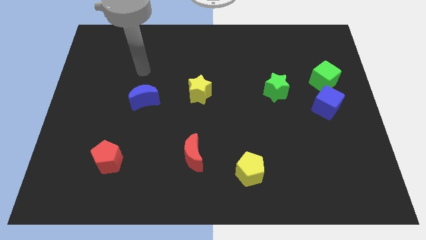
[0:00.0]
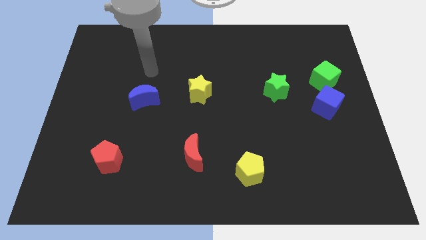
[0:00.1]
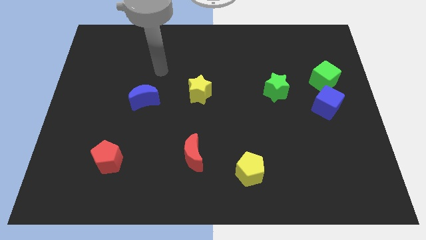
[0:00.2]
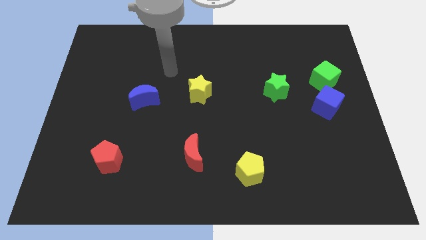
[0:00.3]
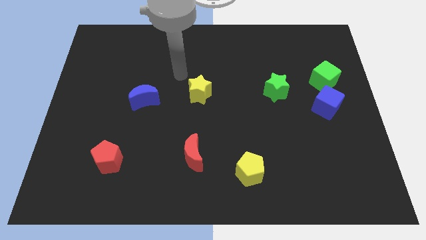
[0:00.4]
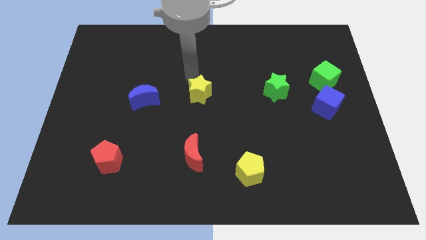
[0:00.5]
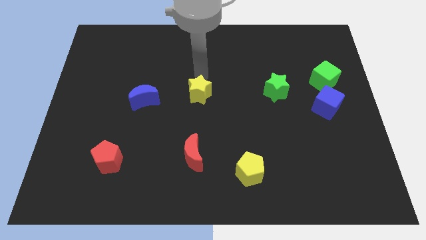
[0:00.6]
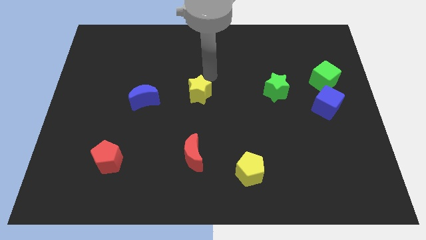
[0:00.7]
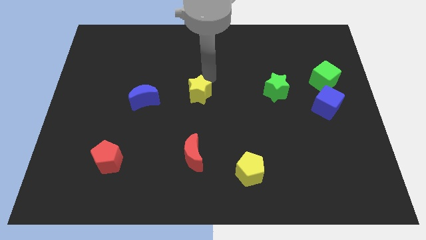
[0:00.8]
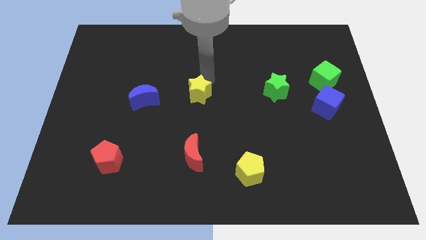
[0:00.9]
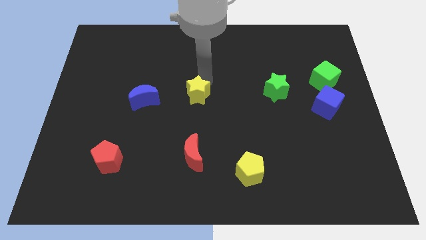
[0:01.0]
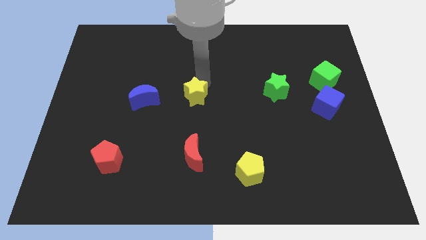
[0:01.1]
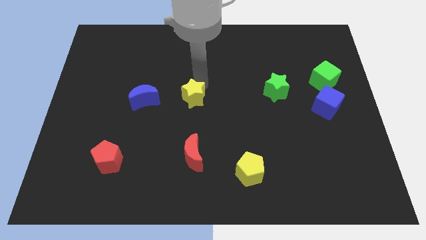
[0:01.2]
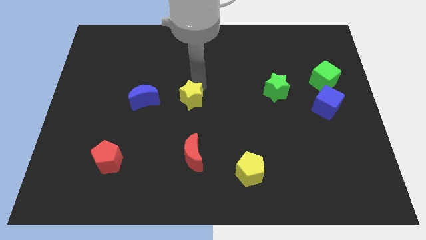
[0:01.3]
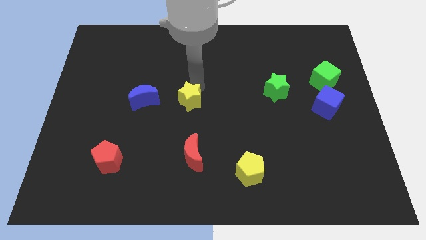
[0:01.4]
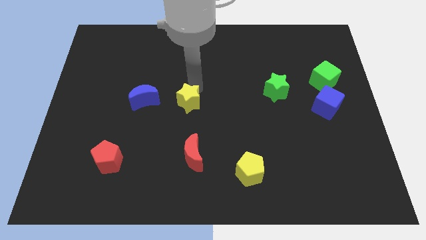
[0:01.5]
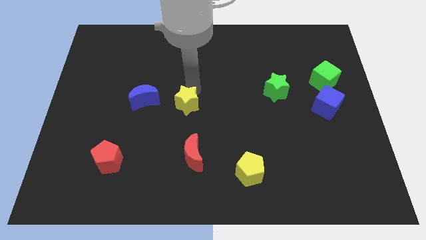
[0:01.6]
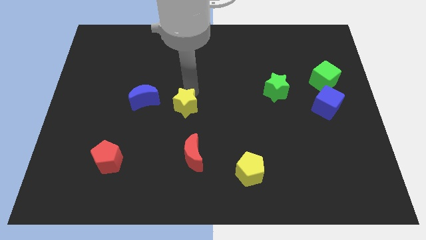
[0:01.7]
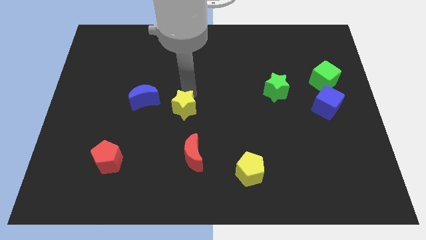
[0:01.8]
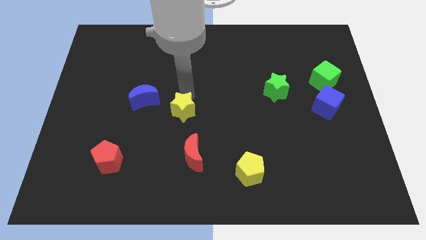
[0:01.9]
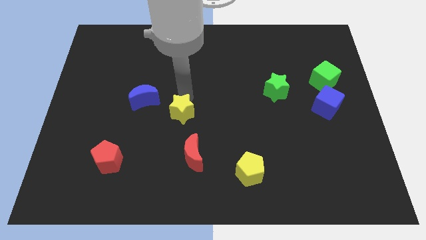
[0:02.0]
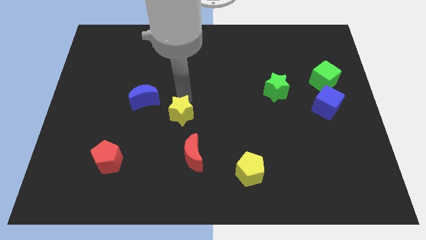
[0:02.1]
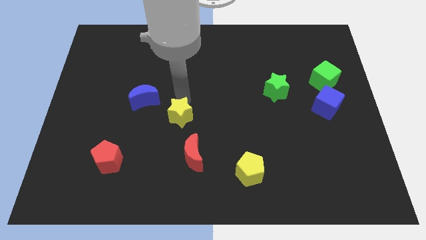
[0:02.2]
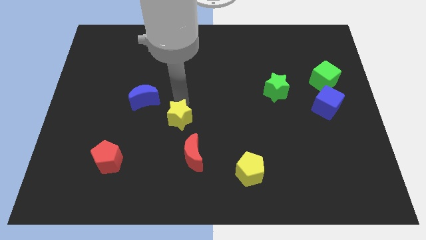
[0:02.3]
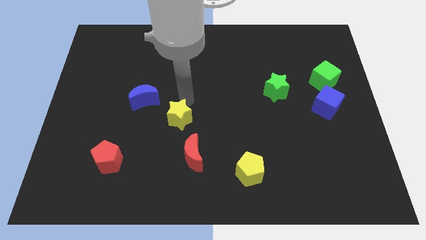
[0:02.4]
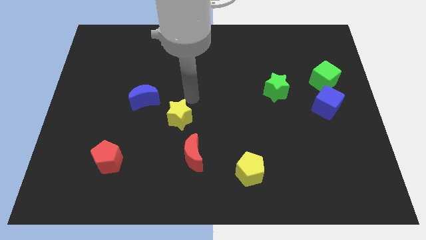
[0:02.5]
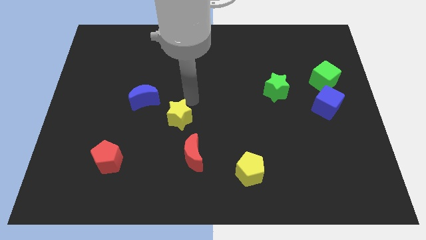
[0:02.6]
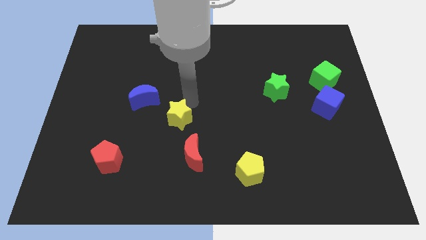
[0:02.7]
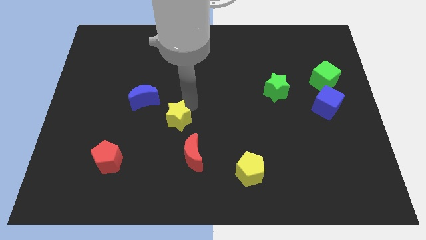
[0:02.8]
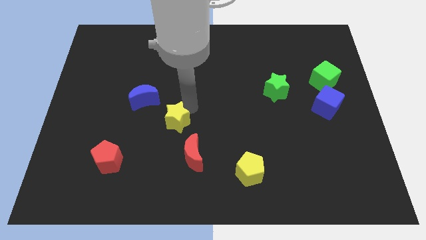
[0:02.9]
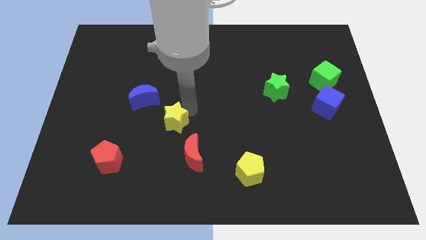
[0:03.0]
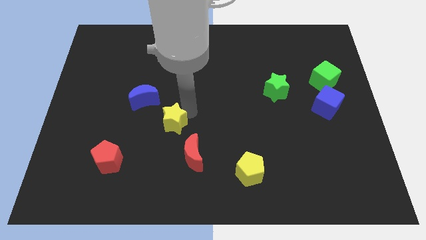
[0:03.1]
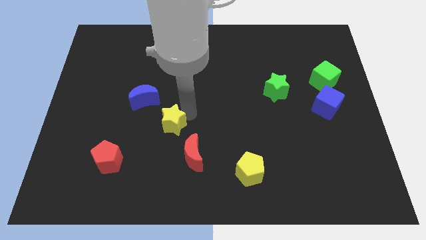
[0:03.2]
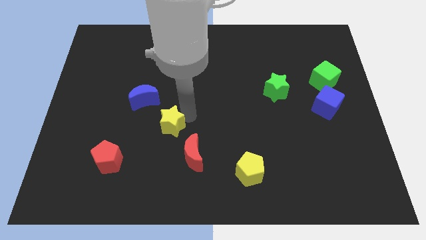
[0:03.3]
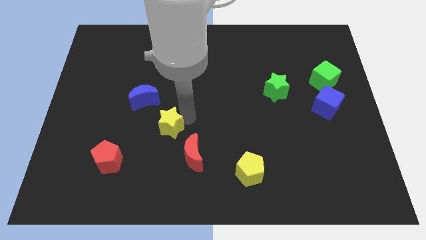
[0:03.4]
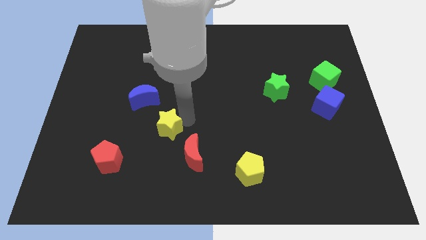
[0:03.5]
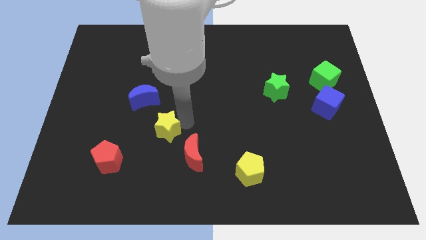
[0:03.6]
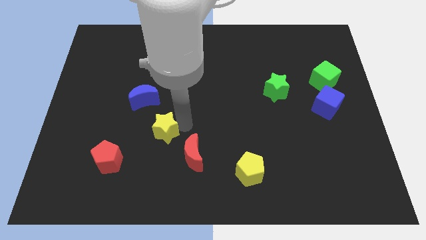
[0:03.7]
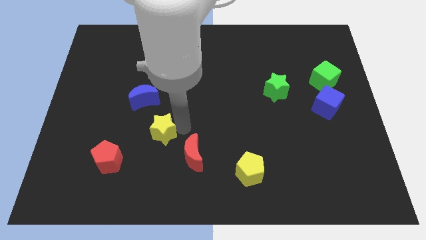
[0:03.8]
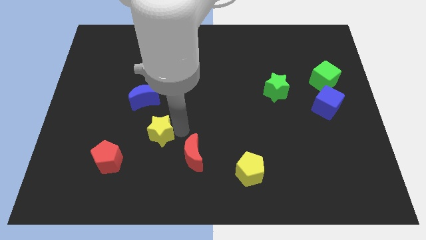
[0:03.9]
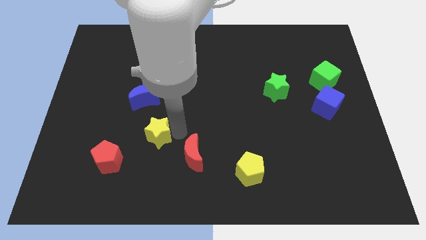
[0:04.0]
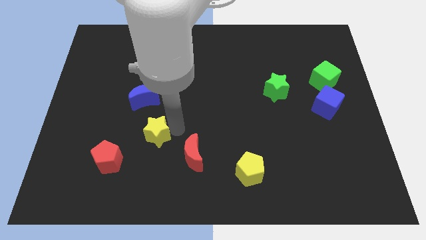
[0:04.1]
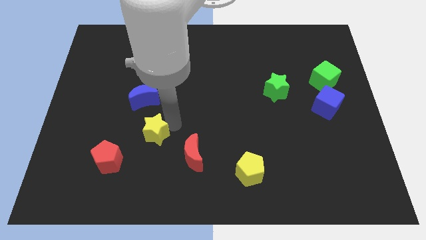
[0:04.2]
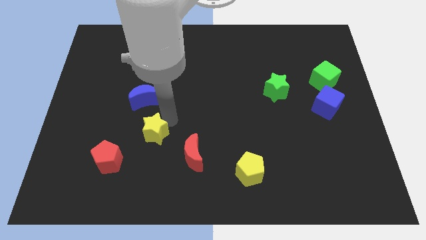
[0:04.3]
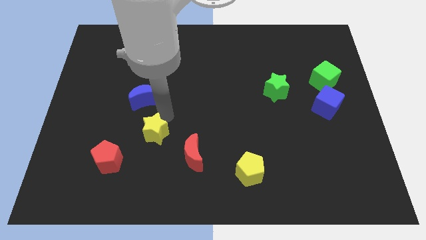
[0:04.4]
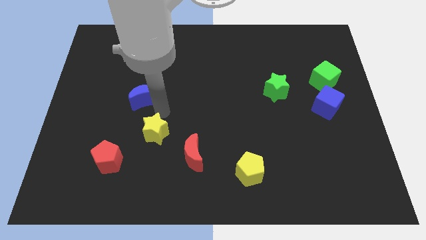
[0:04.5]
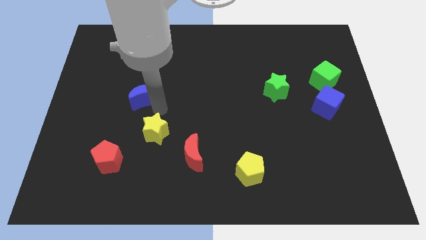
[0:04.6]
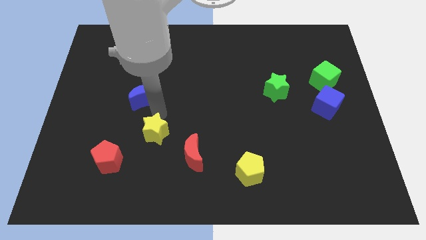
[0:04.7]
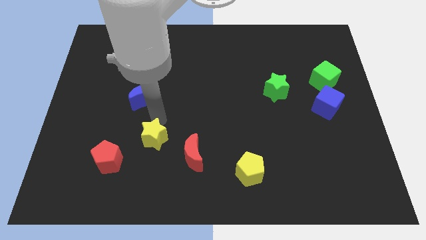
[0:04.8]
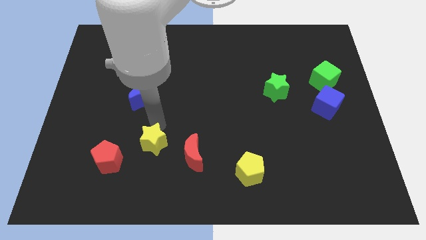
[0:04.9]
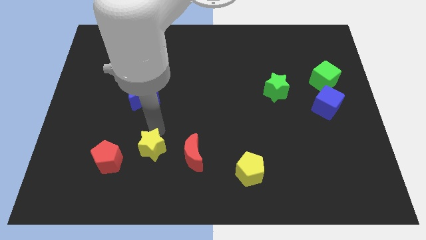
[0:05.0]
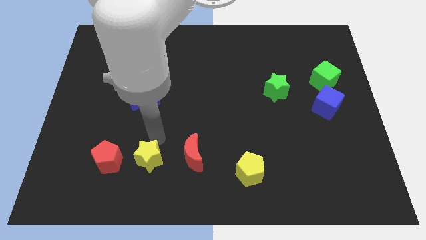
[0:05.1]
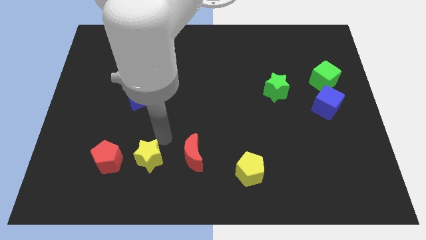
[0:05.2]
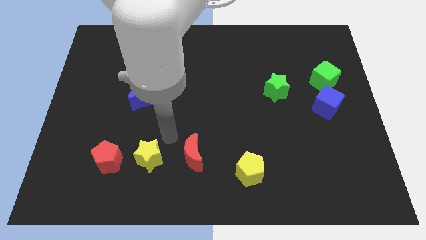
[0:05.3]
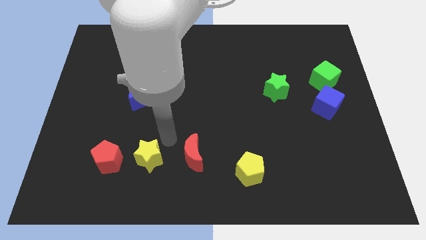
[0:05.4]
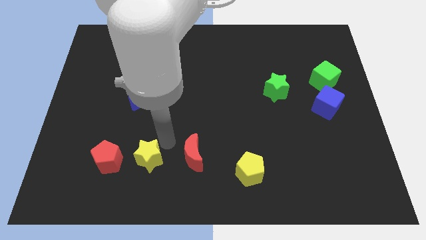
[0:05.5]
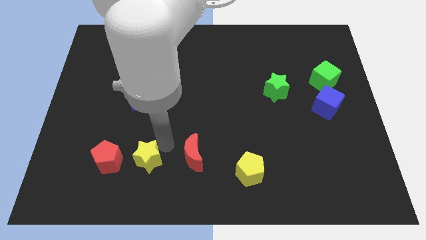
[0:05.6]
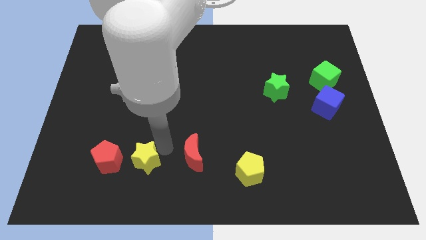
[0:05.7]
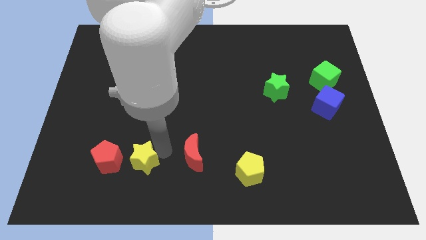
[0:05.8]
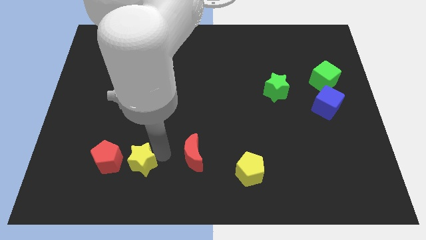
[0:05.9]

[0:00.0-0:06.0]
slide the yellow star to the bottom right side of the red pentagon

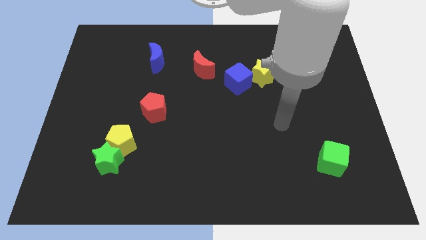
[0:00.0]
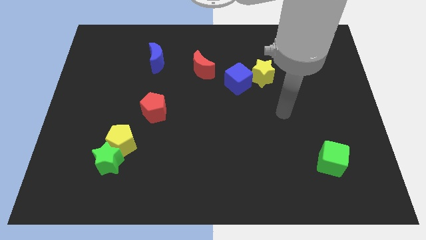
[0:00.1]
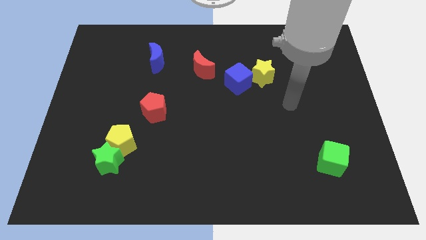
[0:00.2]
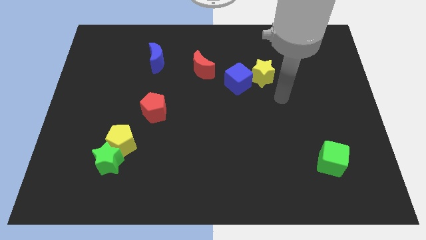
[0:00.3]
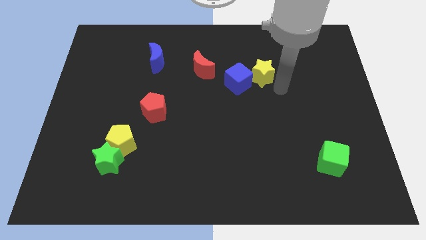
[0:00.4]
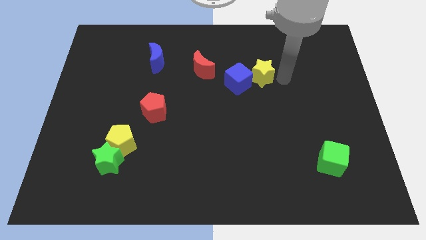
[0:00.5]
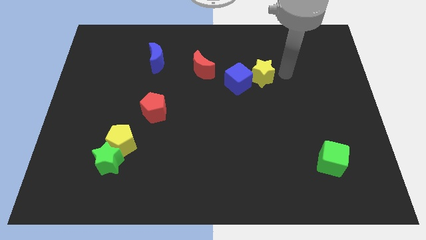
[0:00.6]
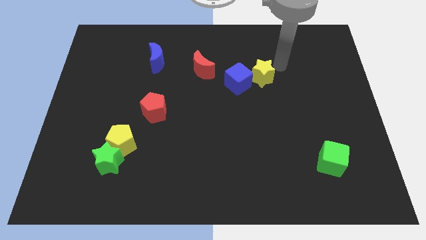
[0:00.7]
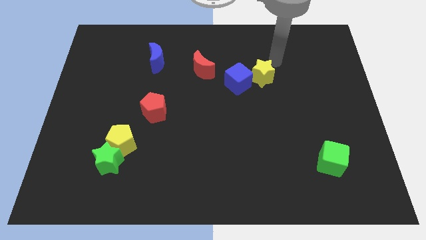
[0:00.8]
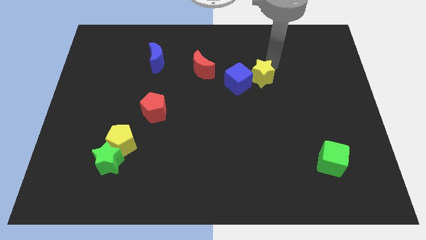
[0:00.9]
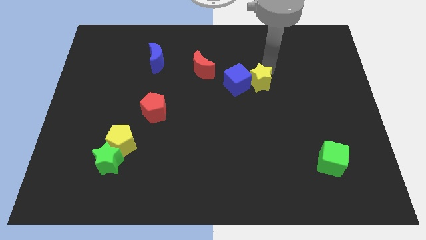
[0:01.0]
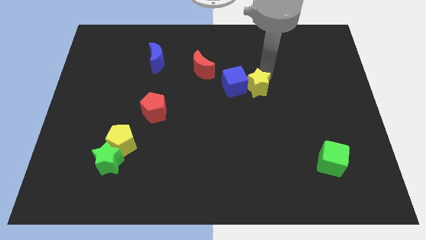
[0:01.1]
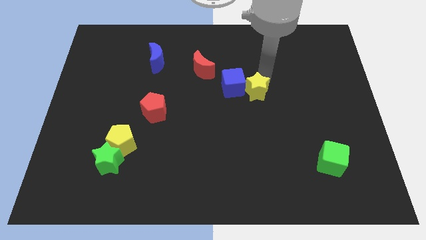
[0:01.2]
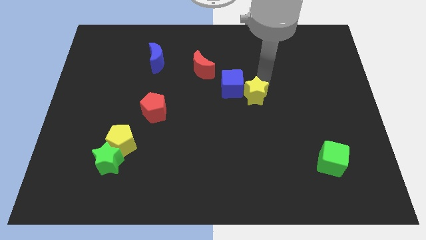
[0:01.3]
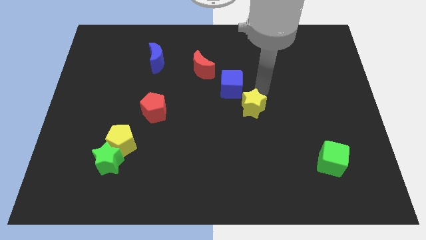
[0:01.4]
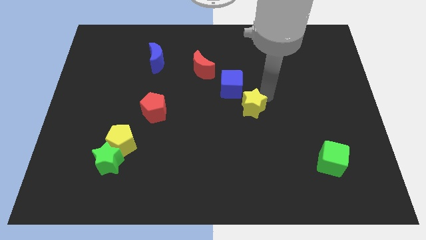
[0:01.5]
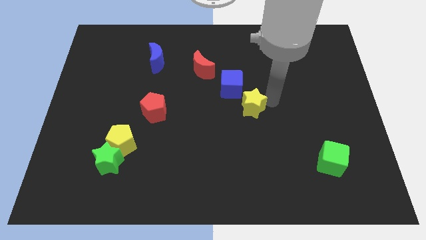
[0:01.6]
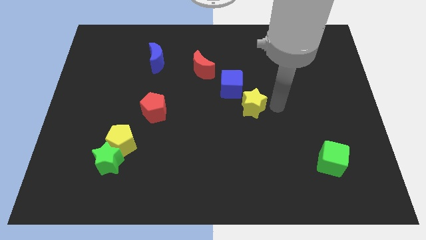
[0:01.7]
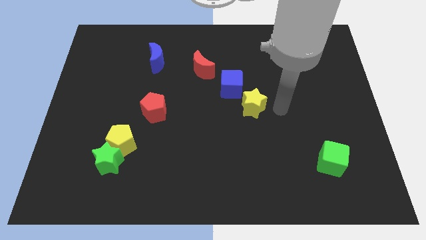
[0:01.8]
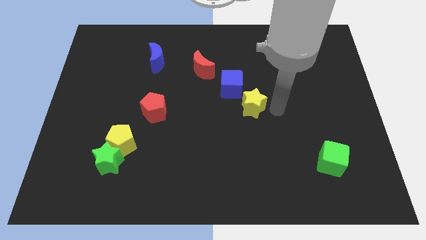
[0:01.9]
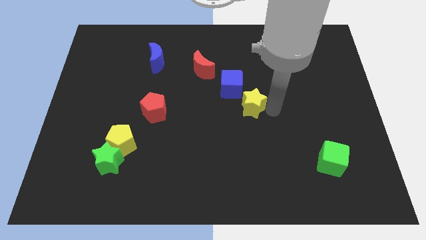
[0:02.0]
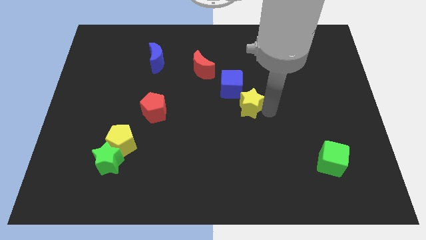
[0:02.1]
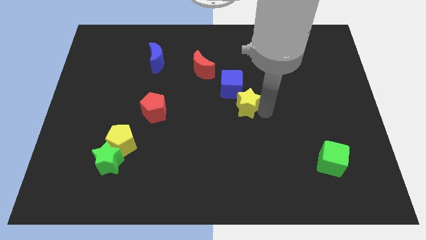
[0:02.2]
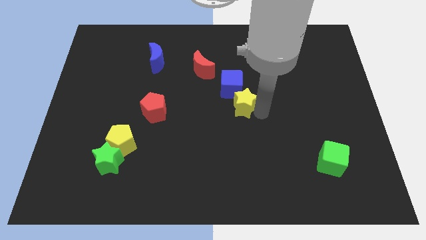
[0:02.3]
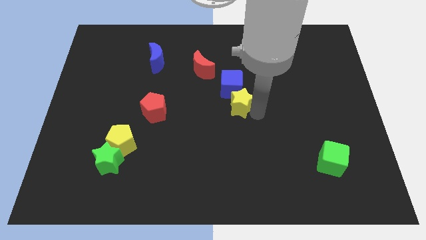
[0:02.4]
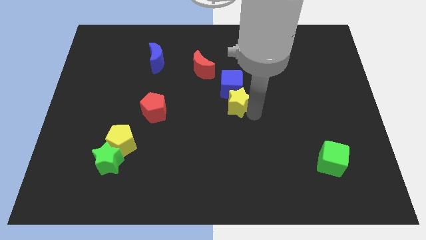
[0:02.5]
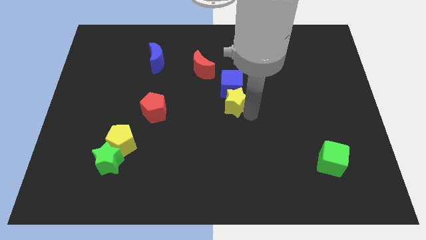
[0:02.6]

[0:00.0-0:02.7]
push the yellow star to the bottom left of the blue cube
